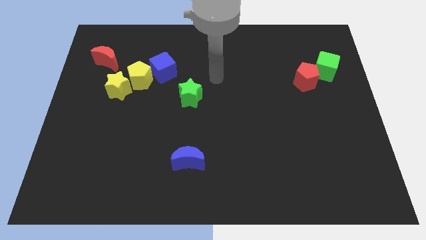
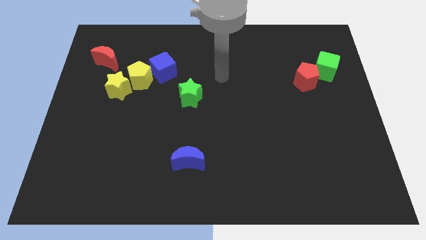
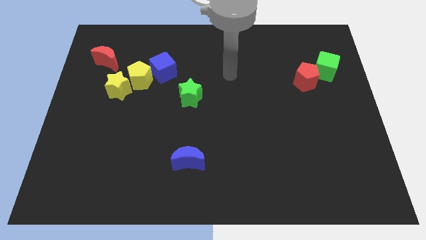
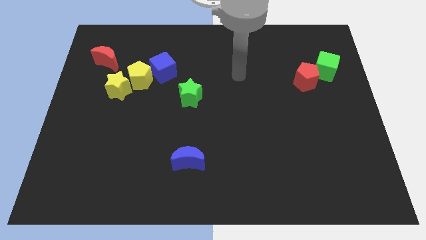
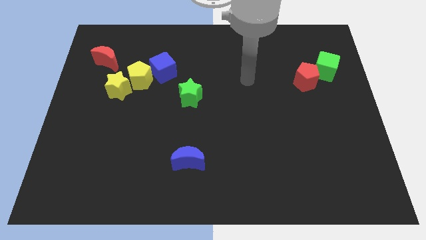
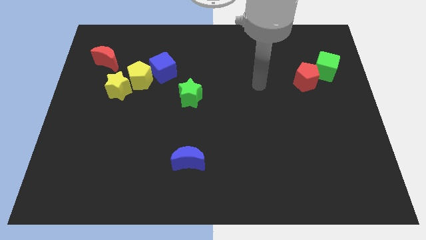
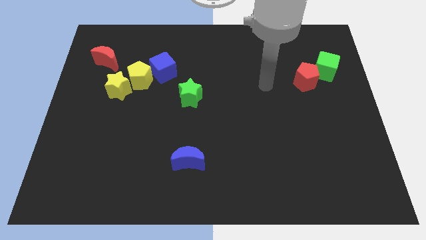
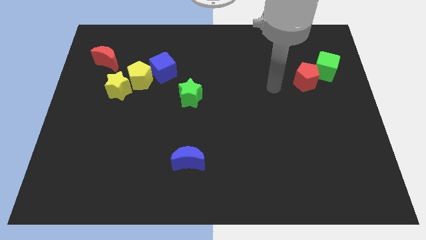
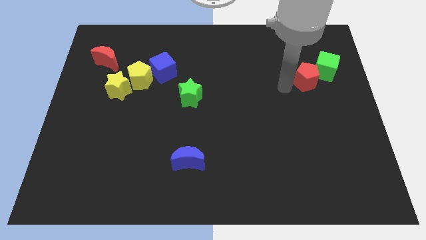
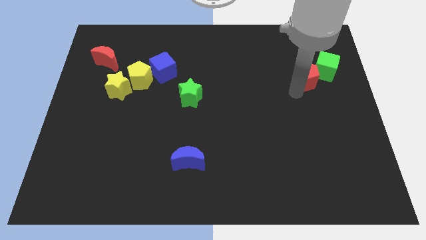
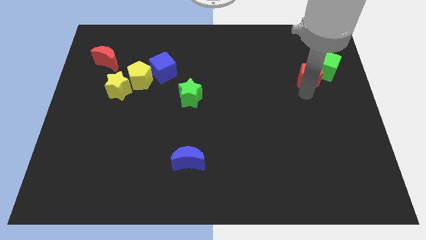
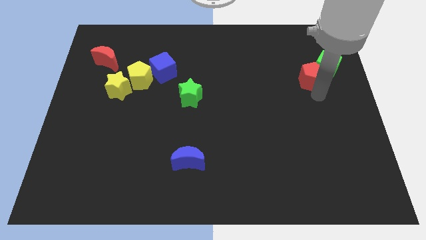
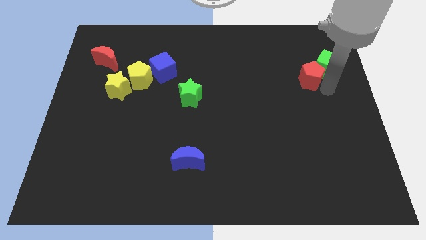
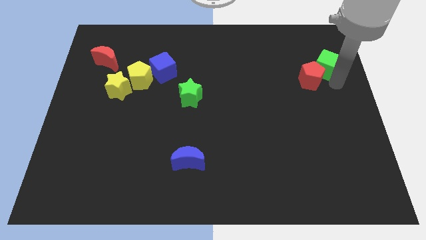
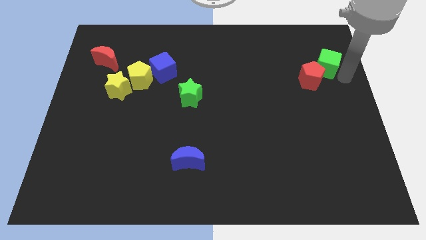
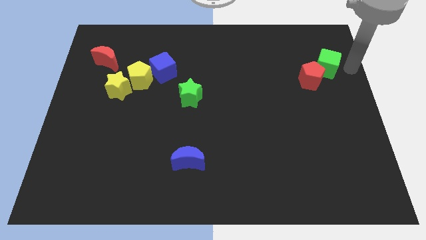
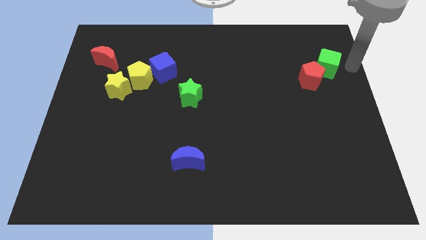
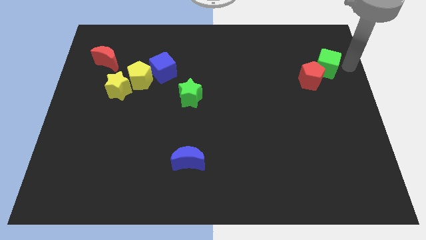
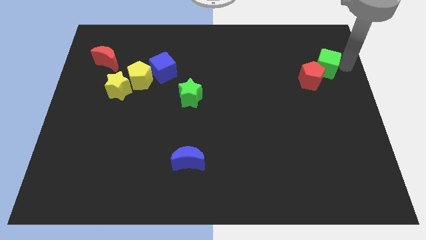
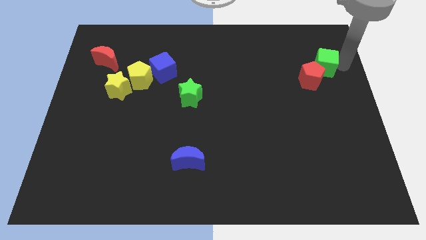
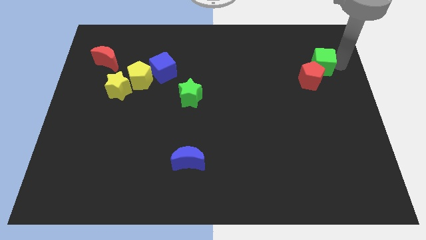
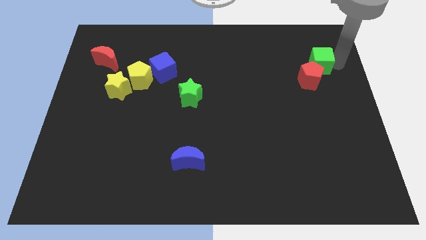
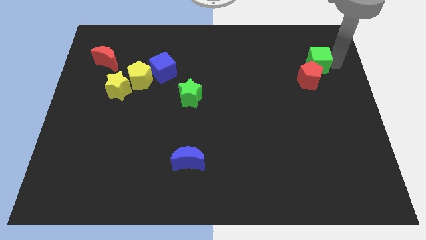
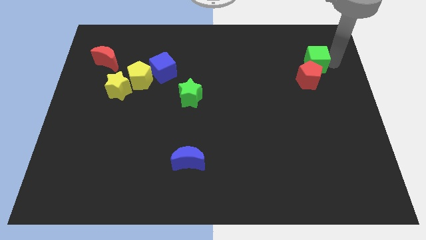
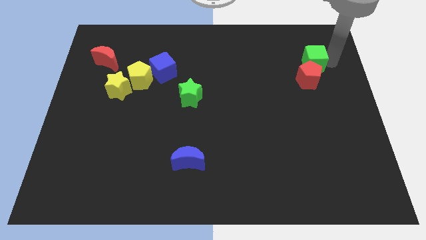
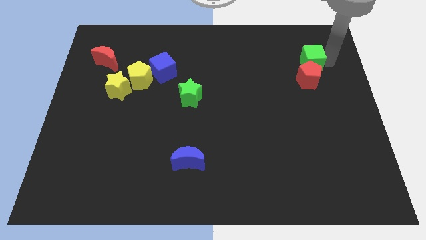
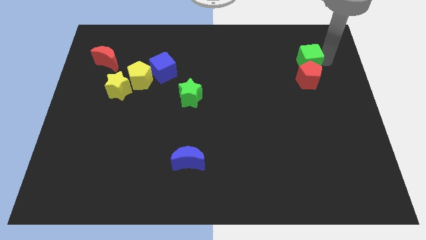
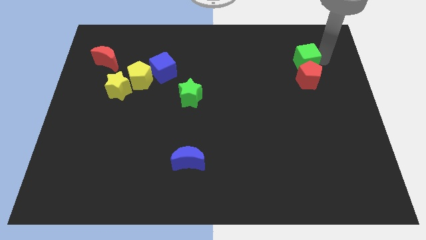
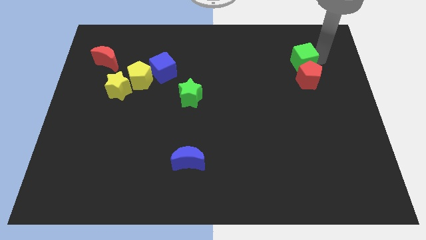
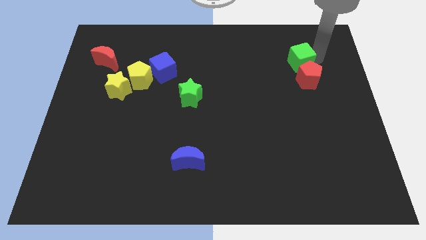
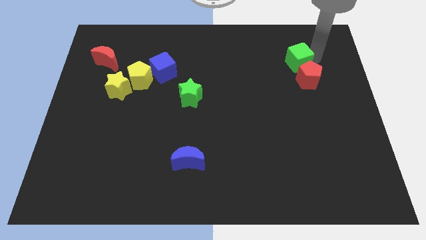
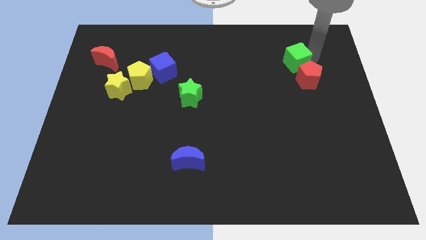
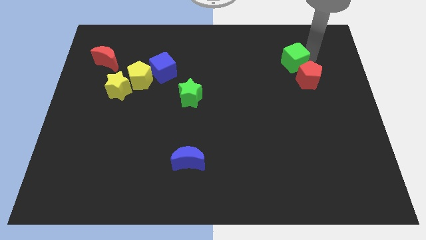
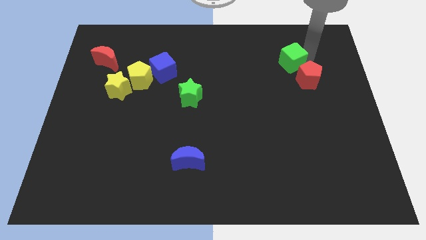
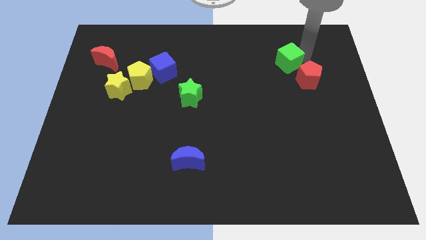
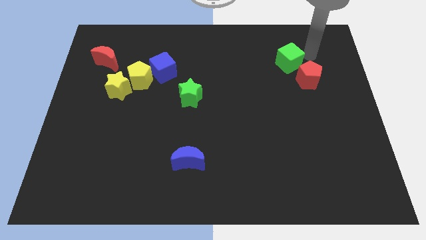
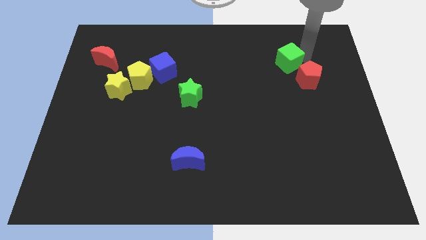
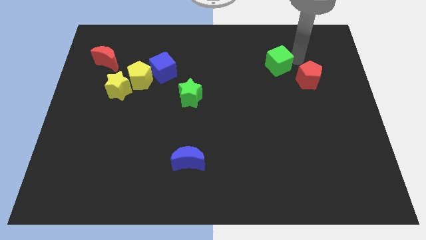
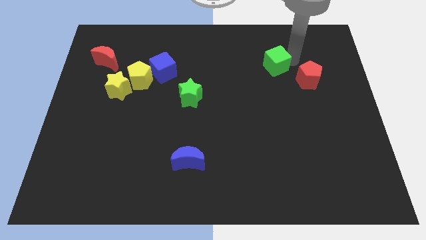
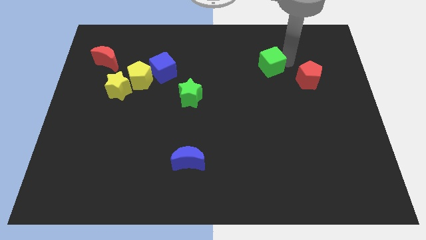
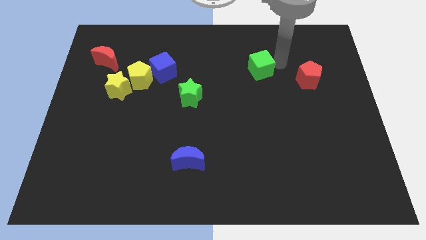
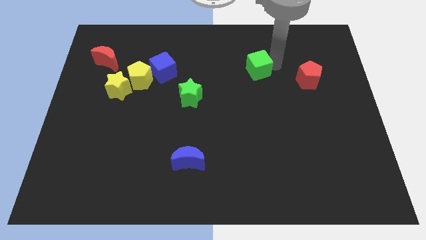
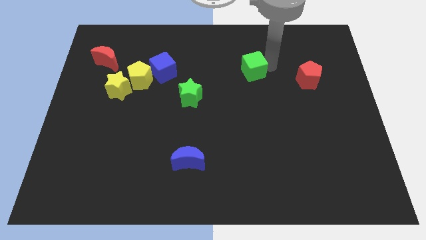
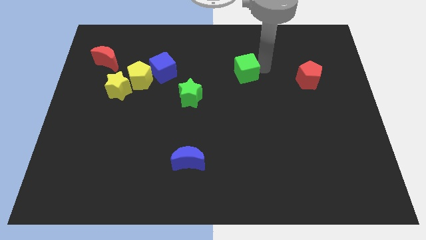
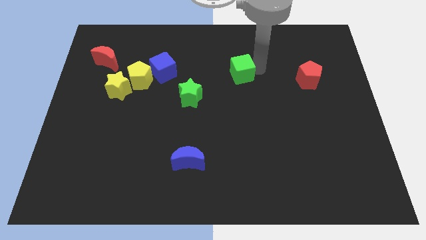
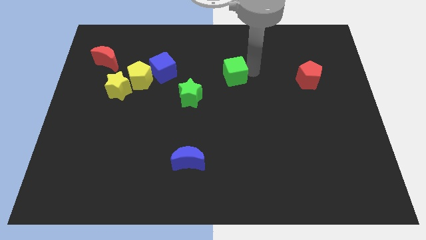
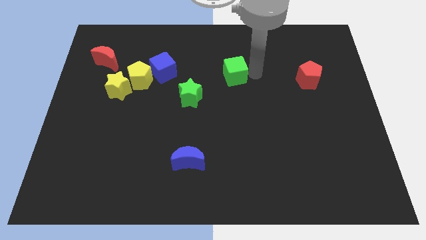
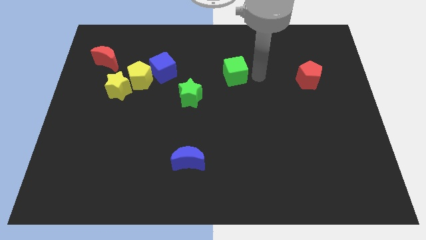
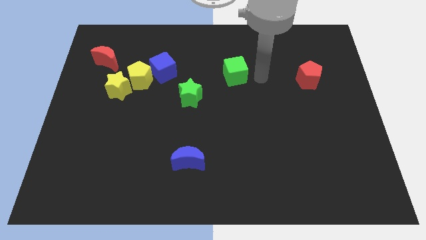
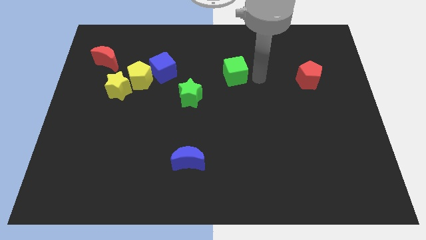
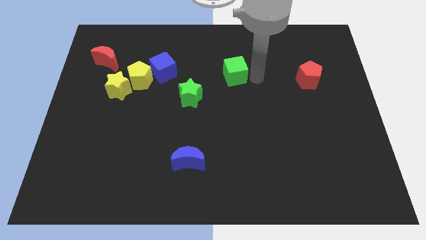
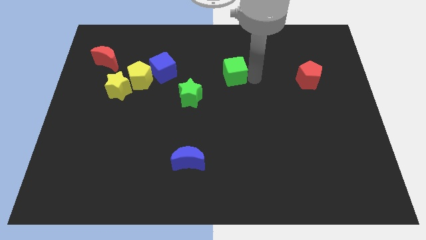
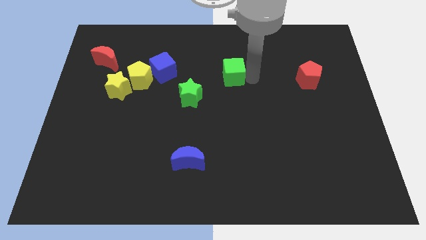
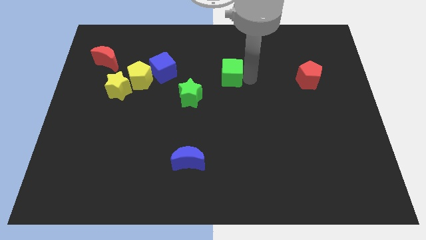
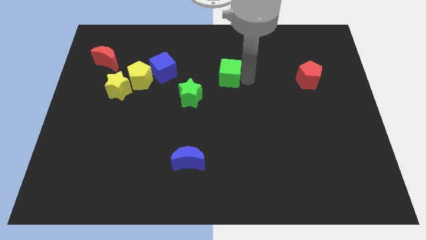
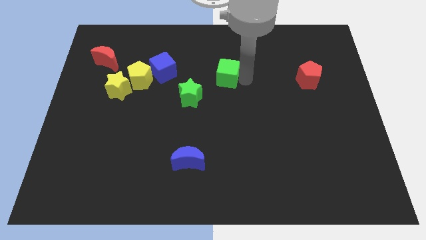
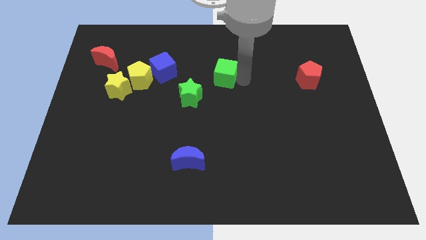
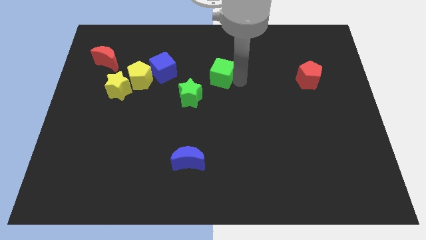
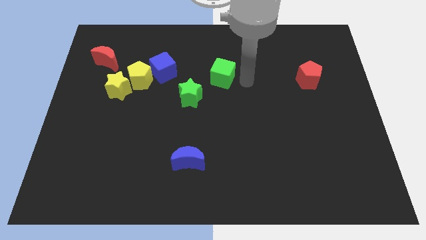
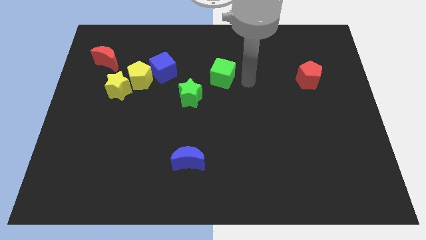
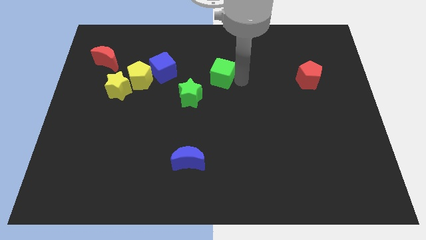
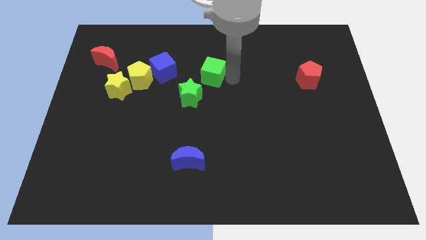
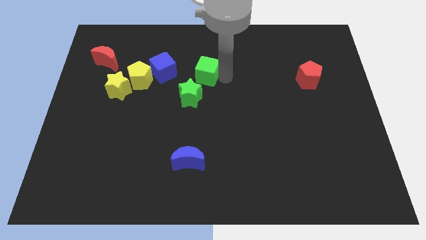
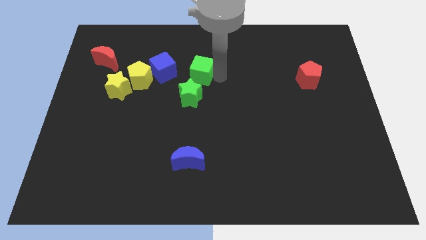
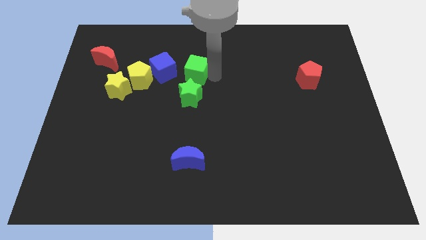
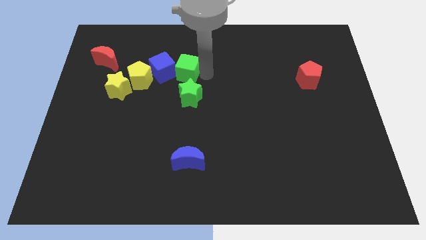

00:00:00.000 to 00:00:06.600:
put the green cube close to the blue cube

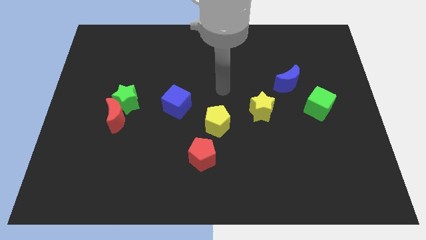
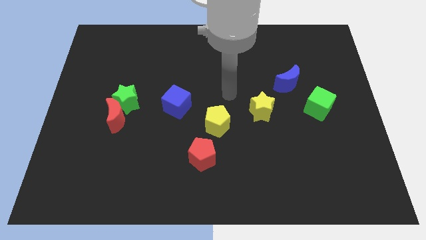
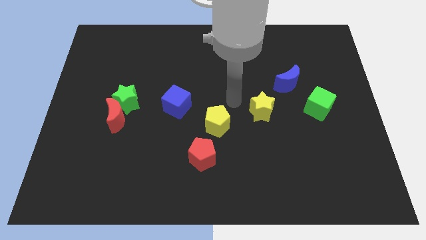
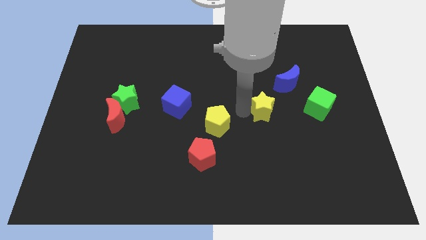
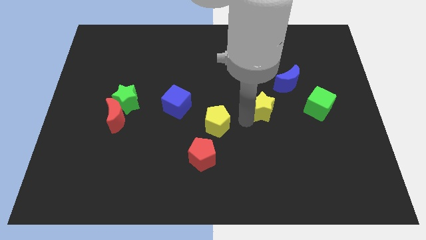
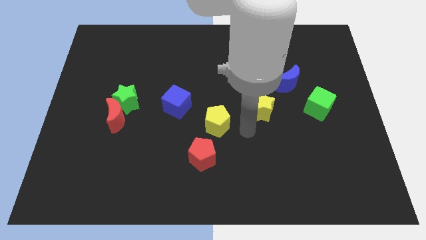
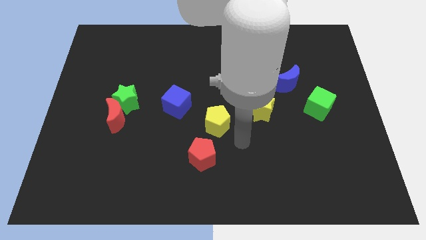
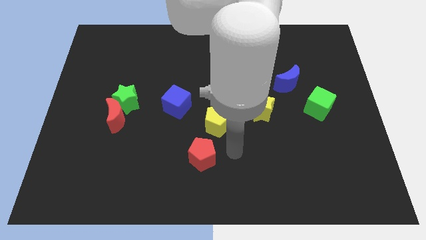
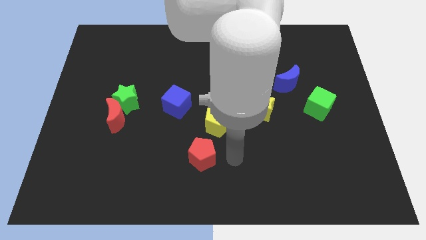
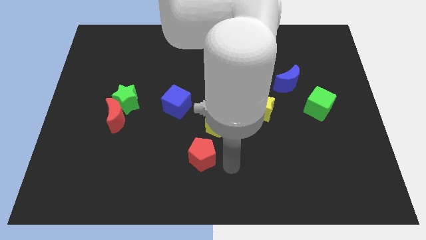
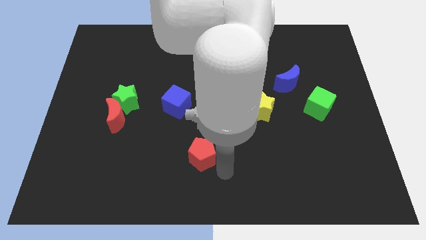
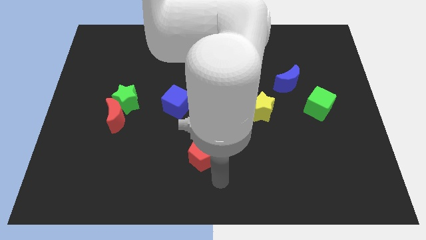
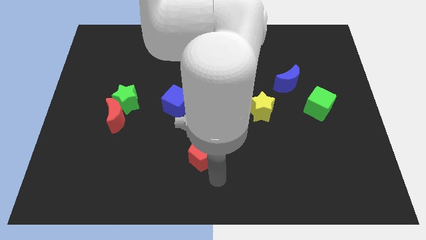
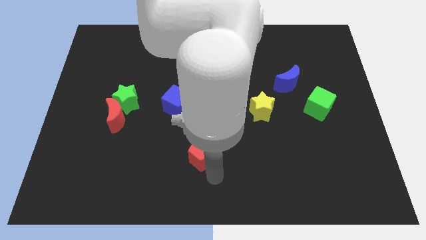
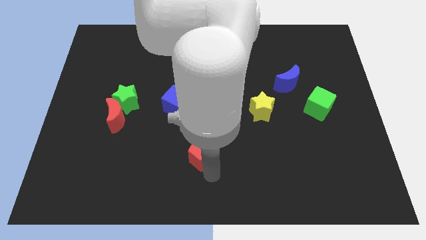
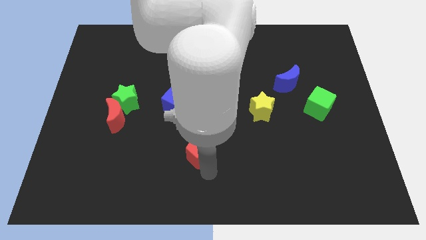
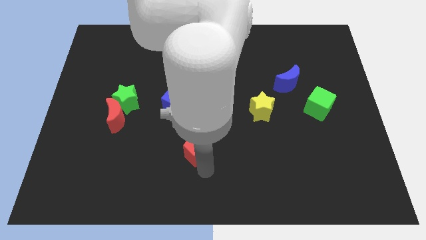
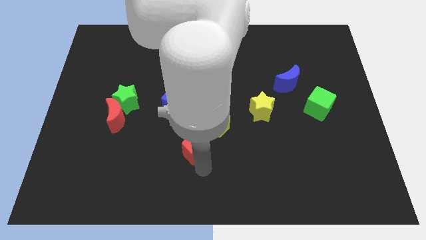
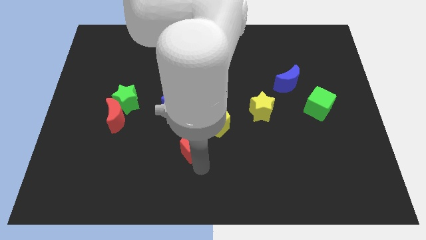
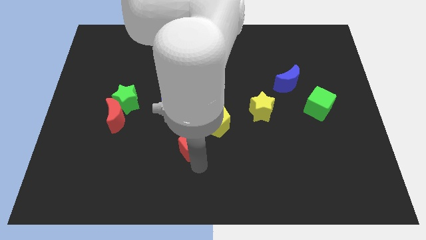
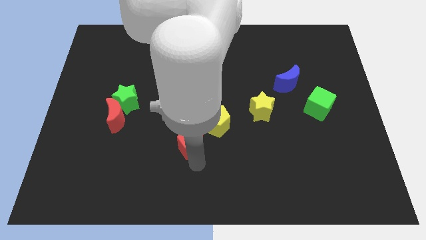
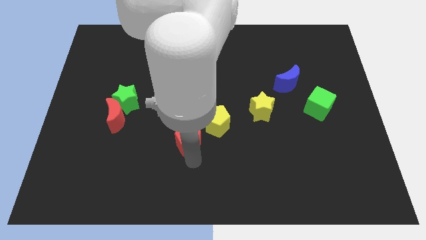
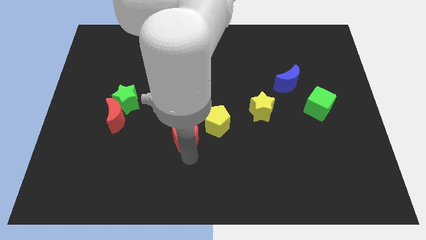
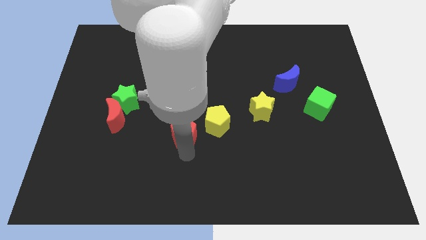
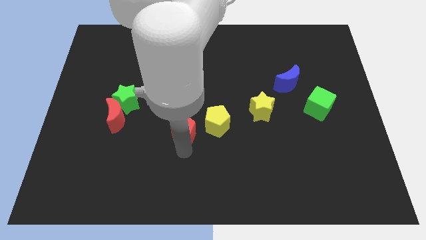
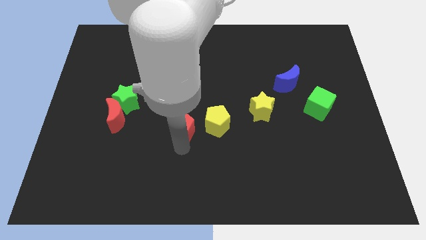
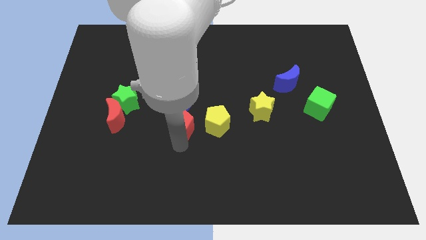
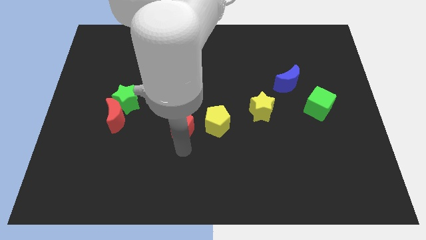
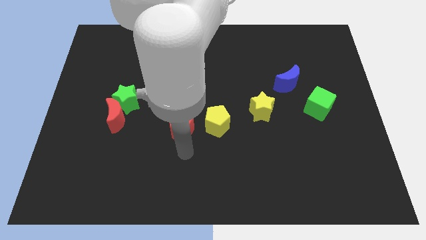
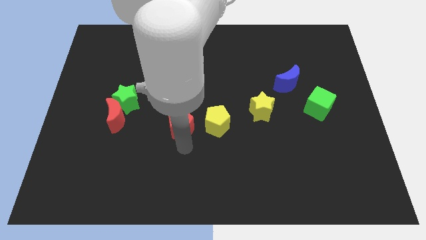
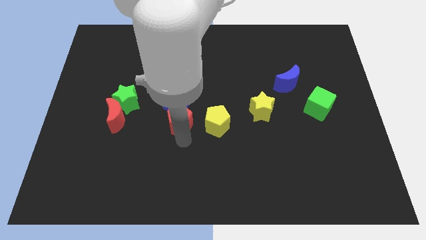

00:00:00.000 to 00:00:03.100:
put the red pentagon close to the blue cube
